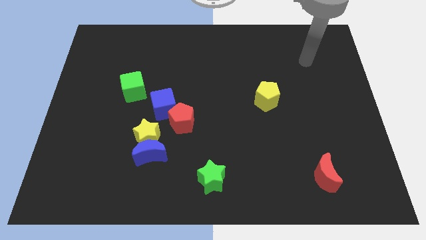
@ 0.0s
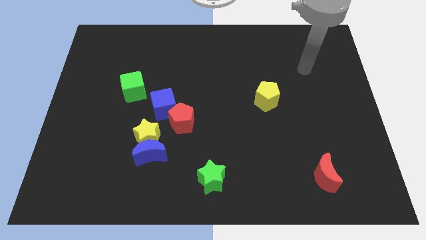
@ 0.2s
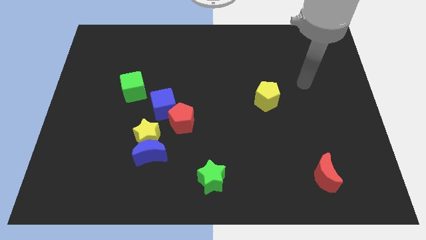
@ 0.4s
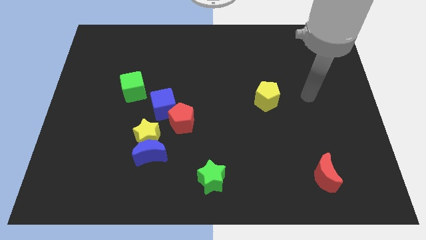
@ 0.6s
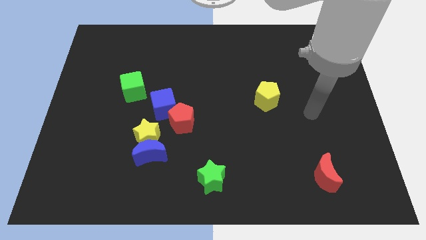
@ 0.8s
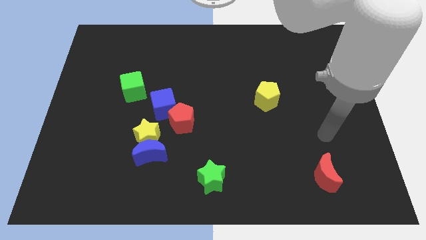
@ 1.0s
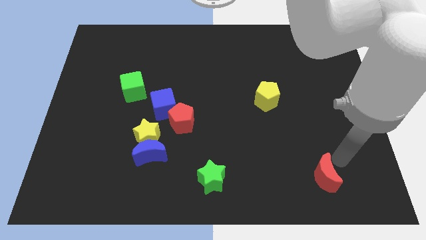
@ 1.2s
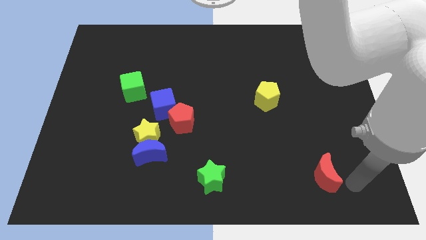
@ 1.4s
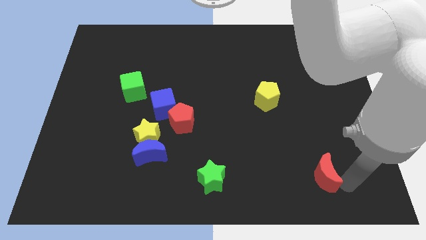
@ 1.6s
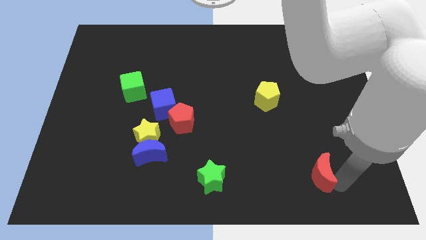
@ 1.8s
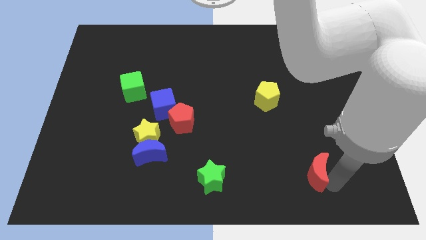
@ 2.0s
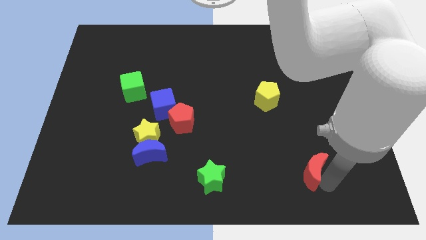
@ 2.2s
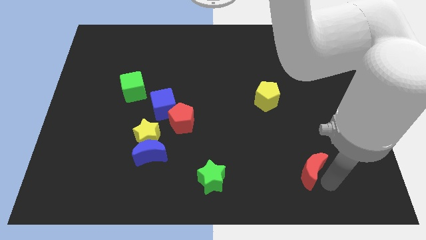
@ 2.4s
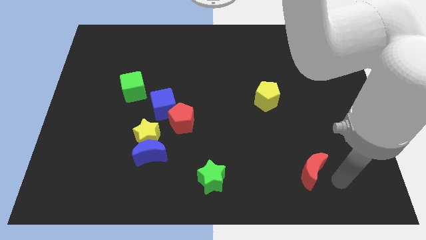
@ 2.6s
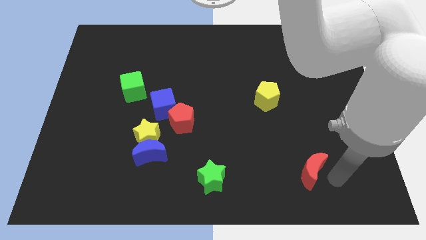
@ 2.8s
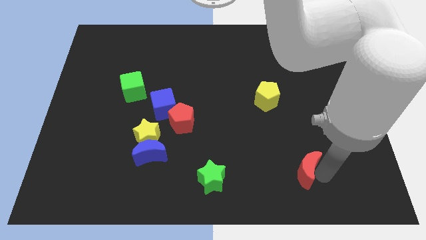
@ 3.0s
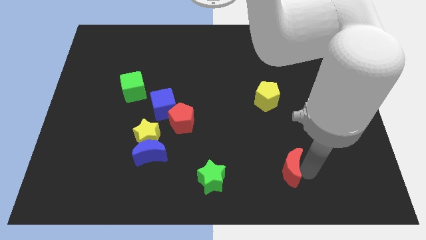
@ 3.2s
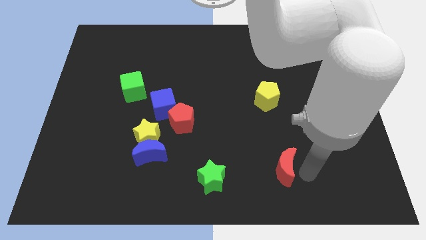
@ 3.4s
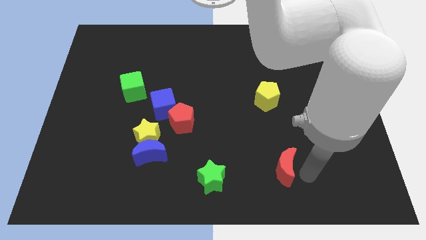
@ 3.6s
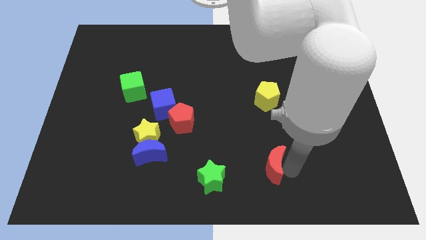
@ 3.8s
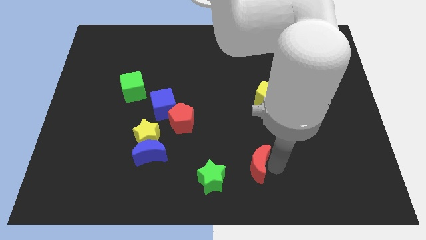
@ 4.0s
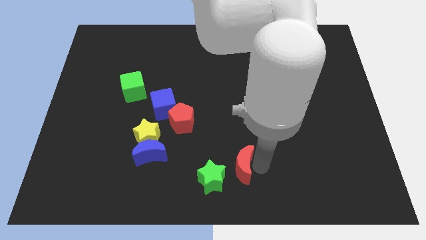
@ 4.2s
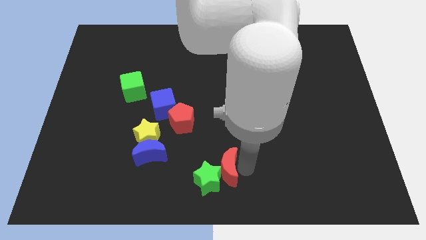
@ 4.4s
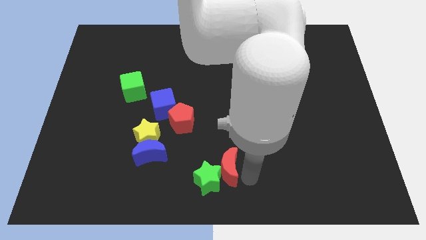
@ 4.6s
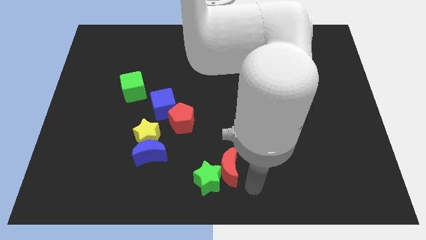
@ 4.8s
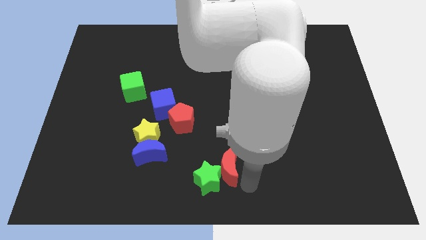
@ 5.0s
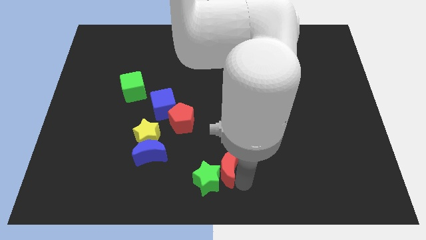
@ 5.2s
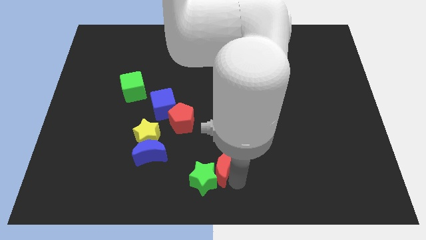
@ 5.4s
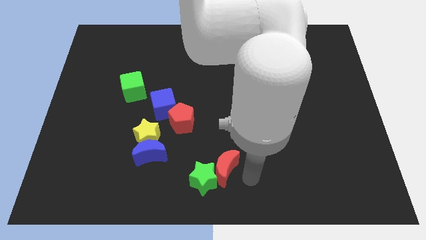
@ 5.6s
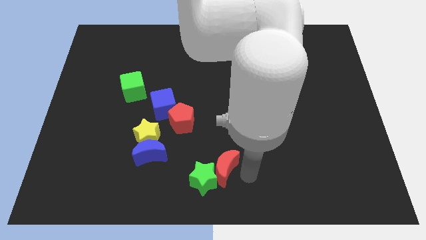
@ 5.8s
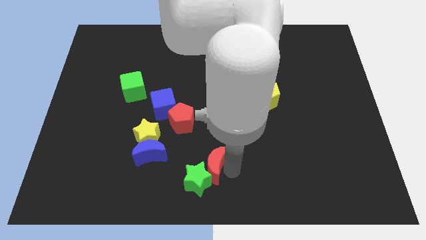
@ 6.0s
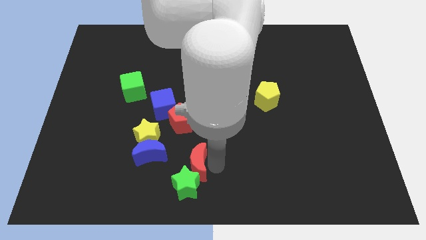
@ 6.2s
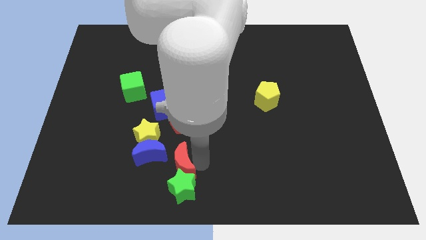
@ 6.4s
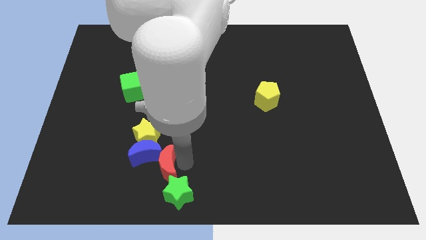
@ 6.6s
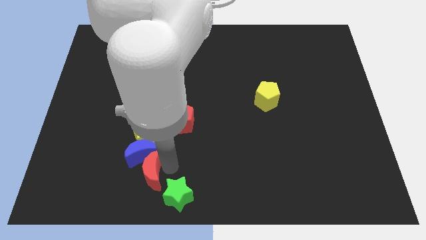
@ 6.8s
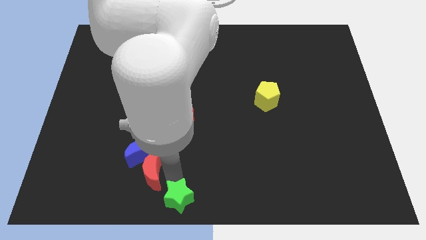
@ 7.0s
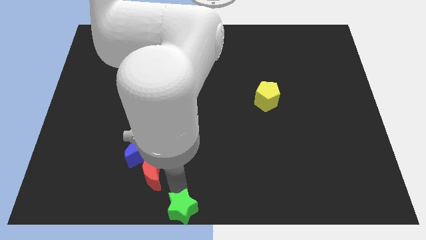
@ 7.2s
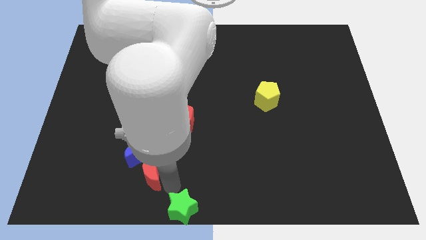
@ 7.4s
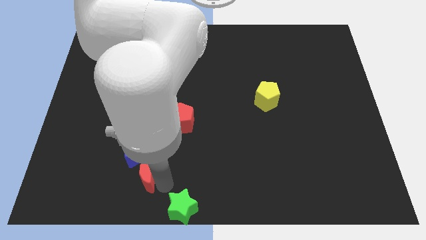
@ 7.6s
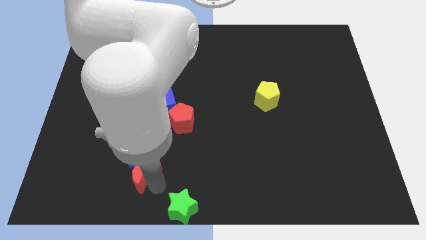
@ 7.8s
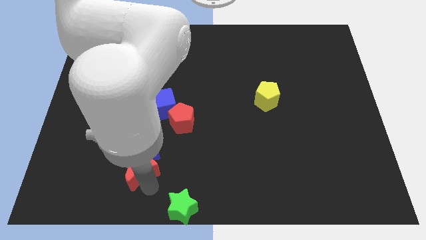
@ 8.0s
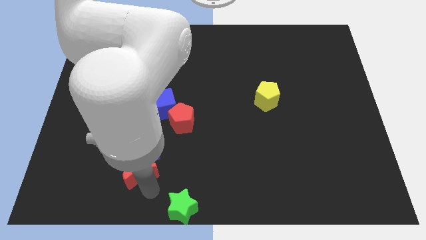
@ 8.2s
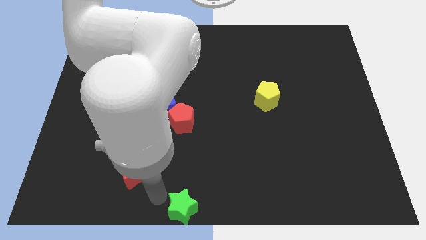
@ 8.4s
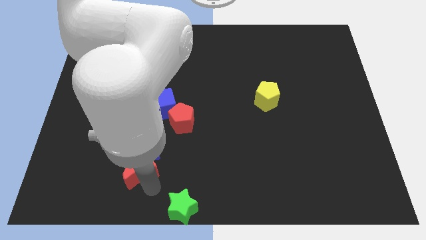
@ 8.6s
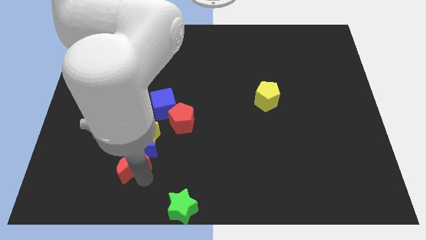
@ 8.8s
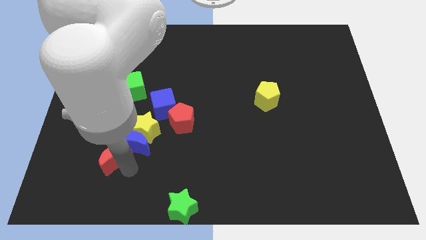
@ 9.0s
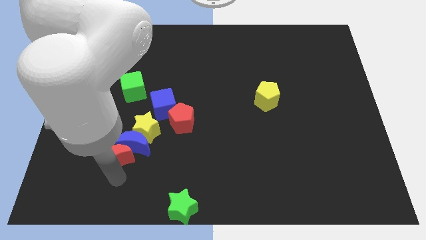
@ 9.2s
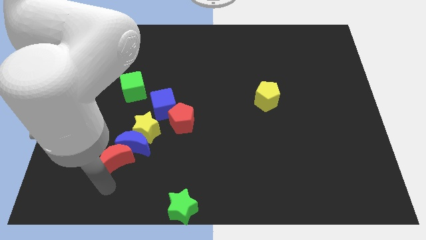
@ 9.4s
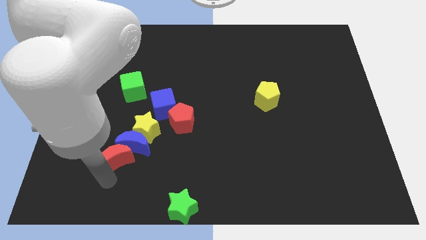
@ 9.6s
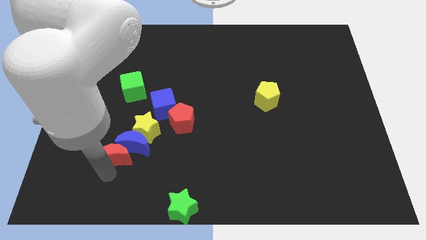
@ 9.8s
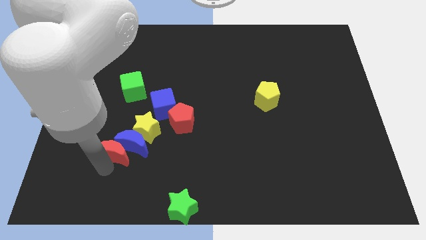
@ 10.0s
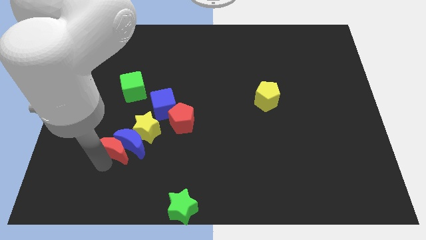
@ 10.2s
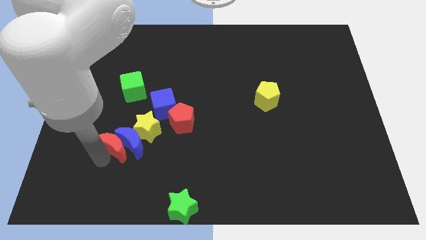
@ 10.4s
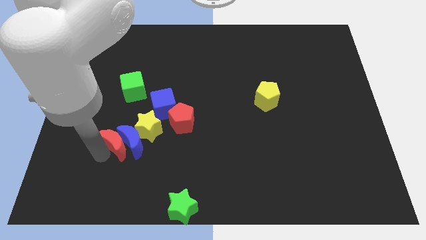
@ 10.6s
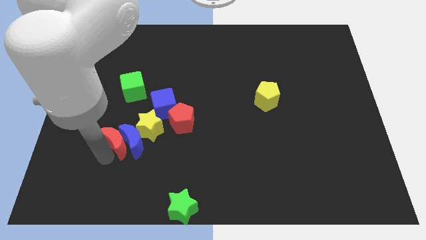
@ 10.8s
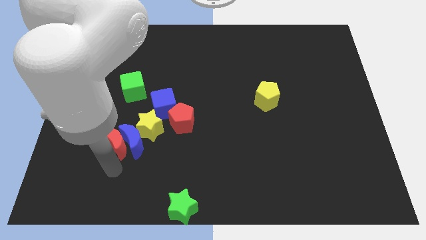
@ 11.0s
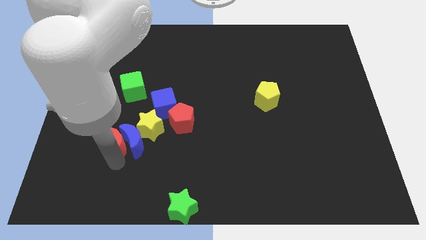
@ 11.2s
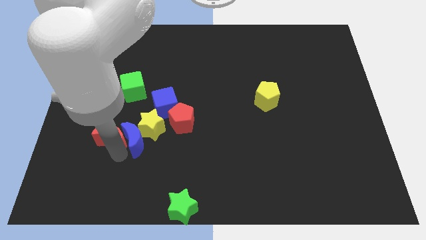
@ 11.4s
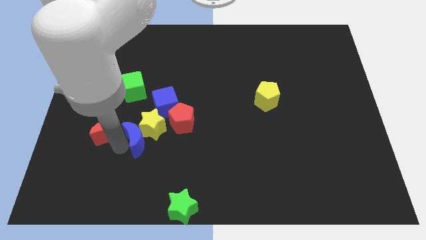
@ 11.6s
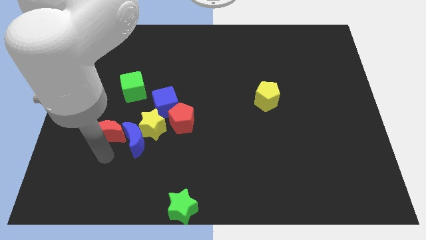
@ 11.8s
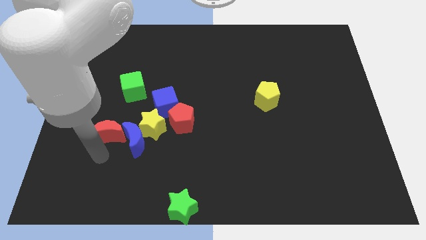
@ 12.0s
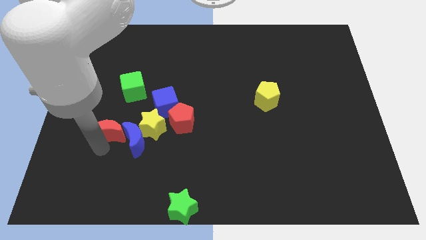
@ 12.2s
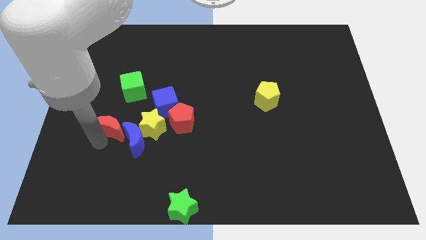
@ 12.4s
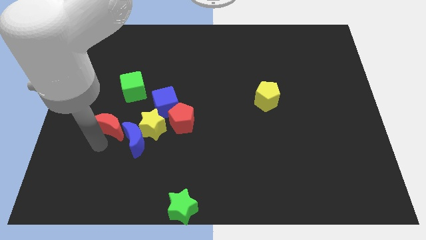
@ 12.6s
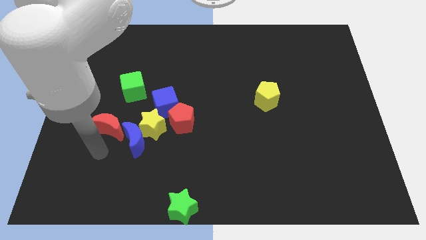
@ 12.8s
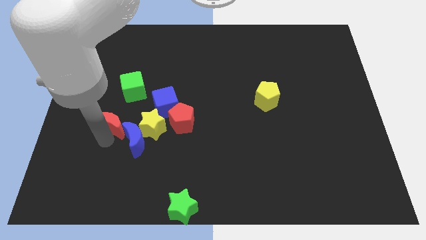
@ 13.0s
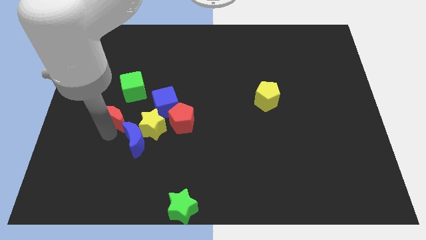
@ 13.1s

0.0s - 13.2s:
move the red moon left of the blue cube

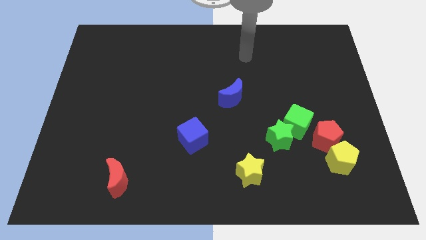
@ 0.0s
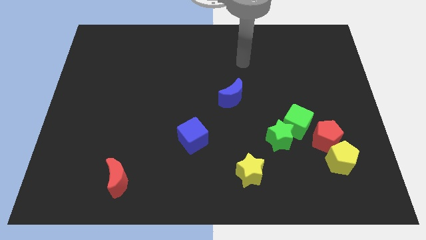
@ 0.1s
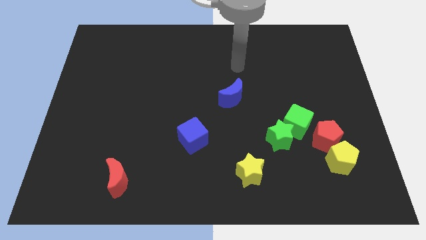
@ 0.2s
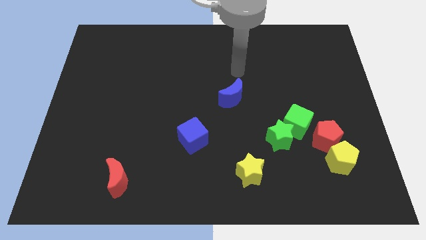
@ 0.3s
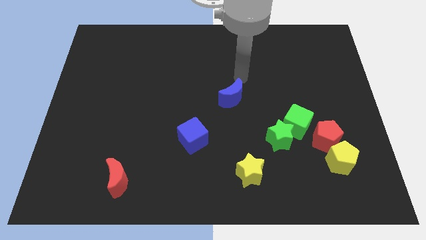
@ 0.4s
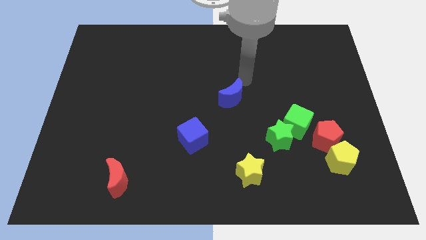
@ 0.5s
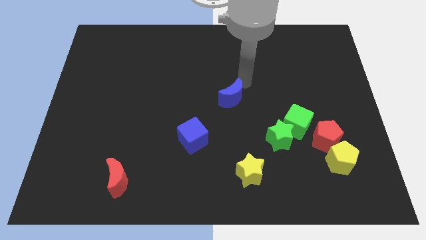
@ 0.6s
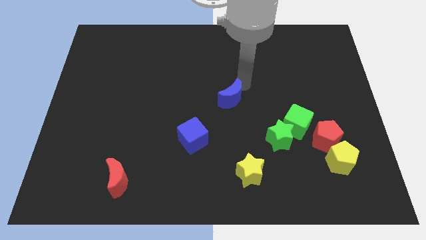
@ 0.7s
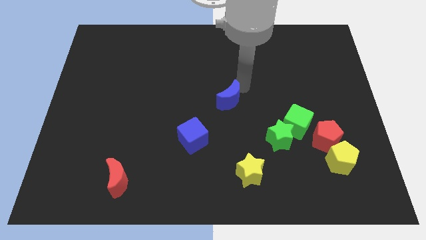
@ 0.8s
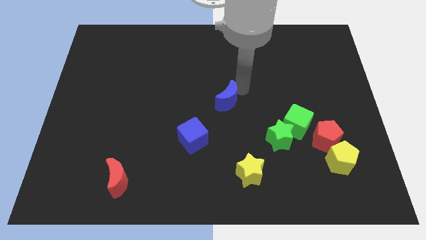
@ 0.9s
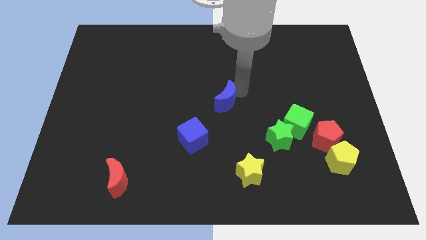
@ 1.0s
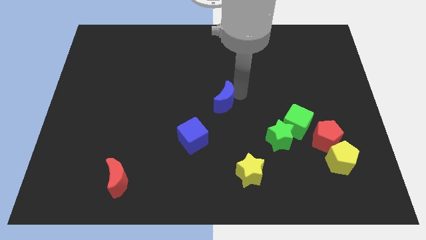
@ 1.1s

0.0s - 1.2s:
slide the blue moon to the top right of the blue cube
